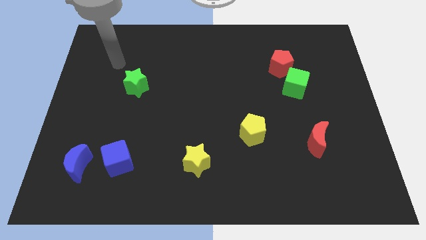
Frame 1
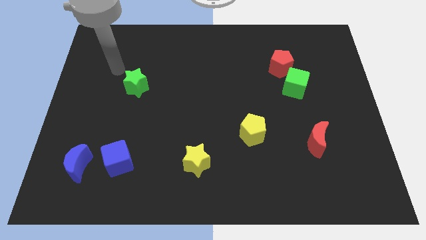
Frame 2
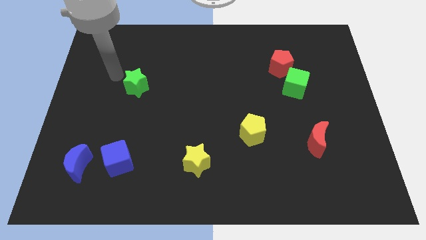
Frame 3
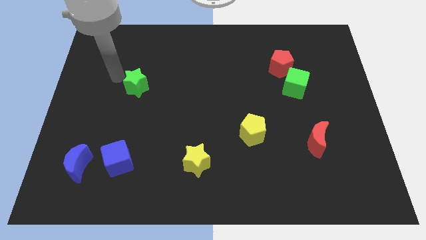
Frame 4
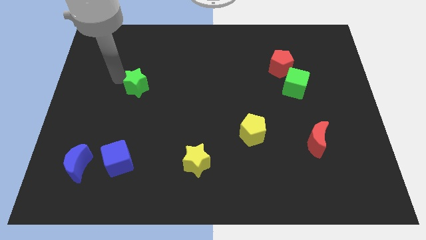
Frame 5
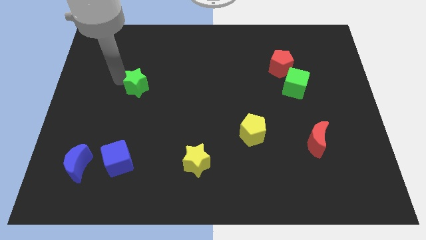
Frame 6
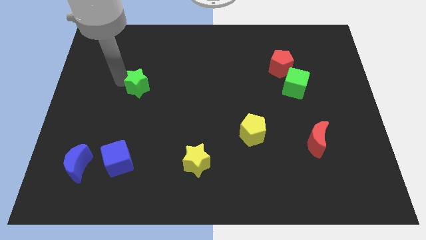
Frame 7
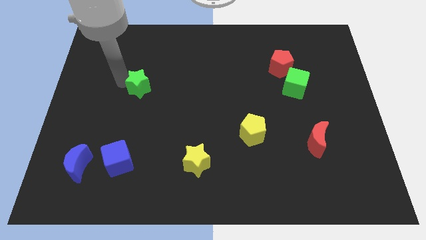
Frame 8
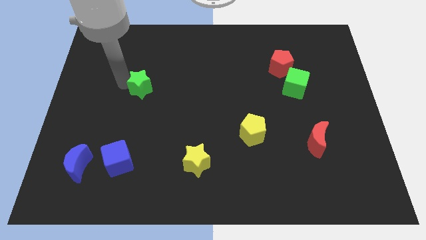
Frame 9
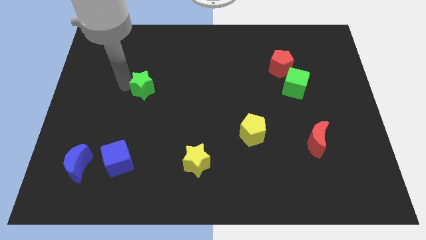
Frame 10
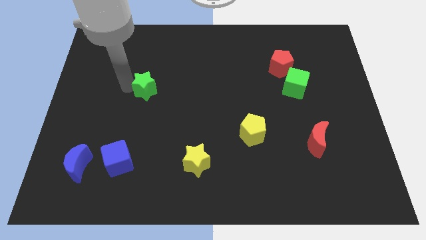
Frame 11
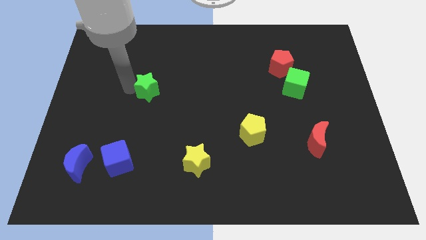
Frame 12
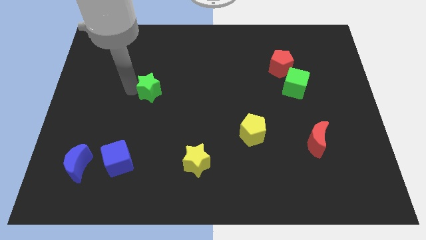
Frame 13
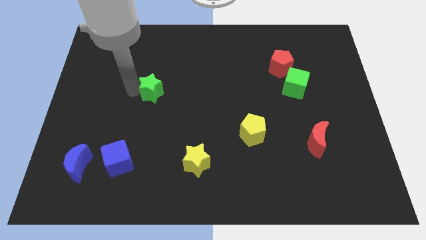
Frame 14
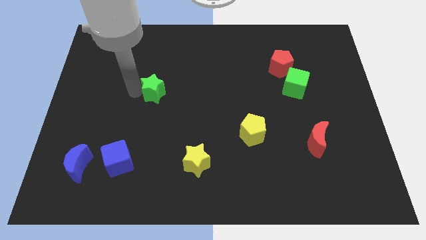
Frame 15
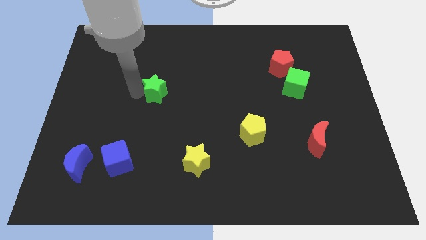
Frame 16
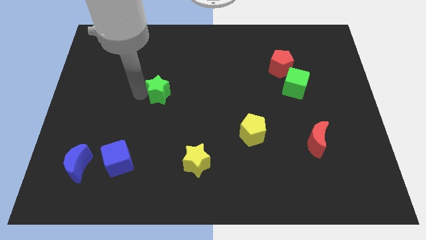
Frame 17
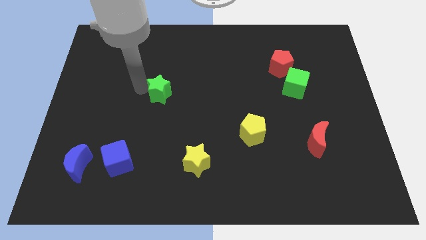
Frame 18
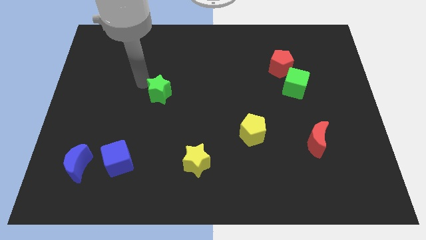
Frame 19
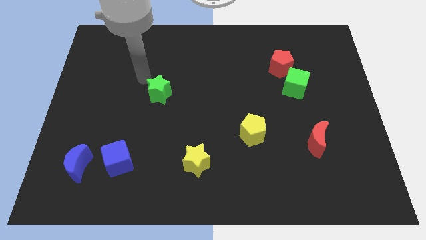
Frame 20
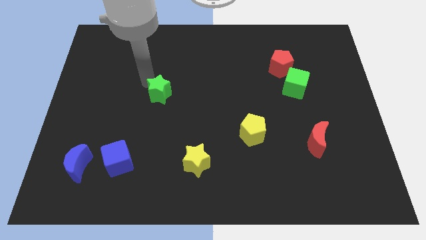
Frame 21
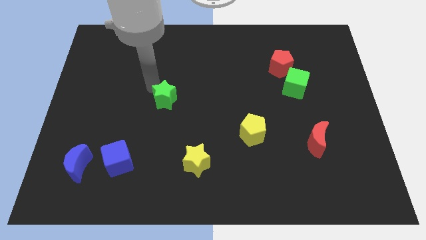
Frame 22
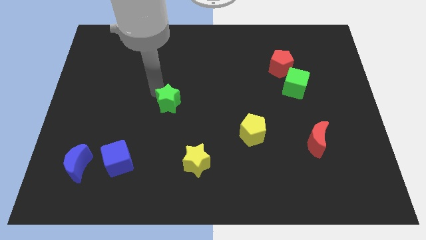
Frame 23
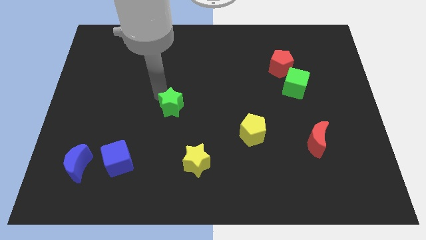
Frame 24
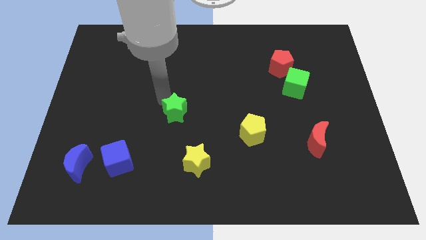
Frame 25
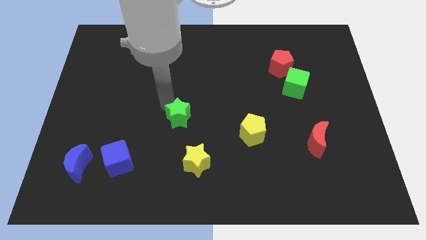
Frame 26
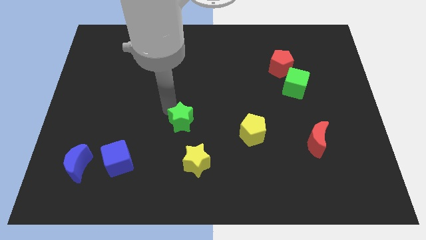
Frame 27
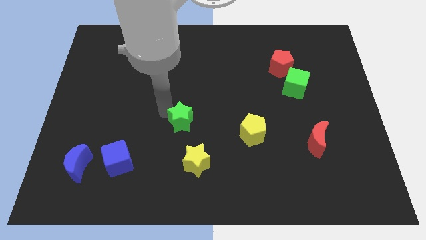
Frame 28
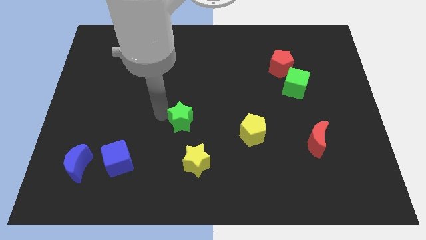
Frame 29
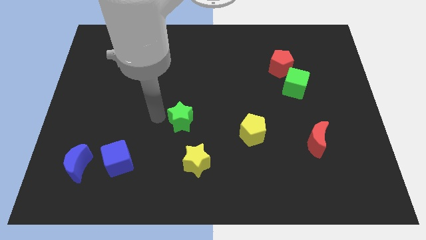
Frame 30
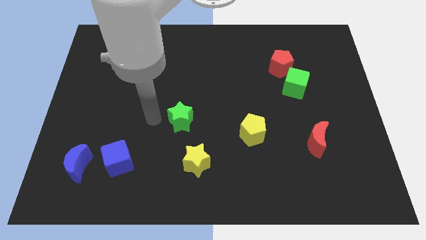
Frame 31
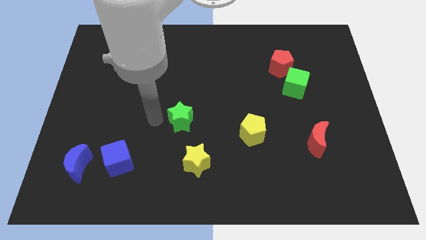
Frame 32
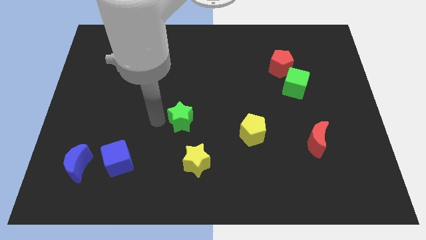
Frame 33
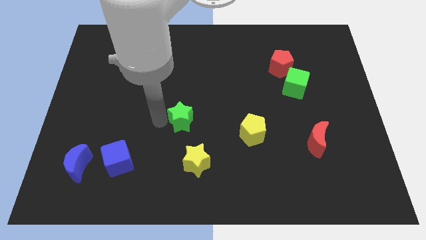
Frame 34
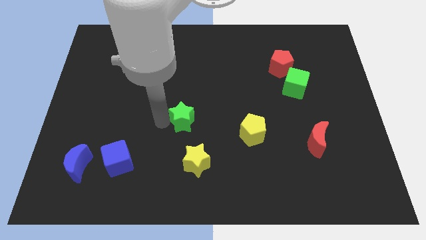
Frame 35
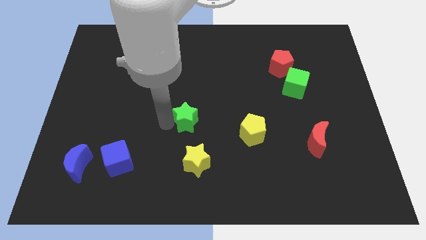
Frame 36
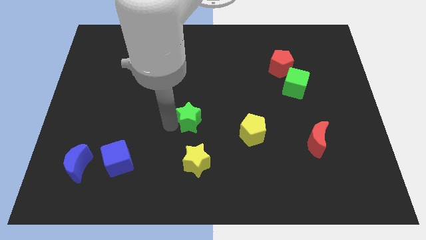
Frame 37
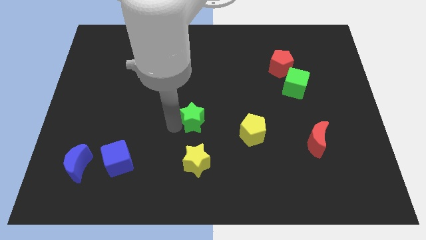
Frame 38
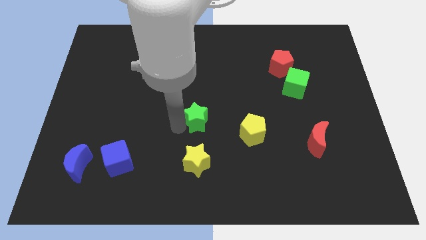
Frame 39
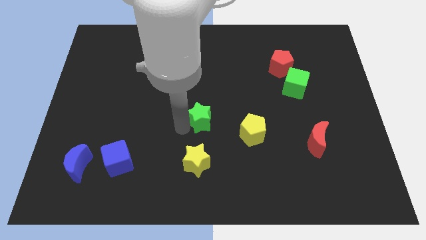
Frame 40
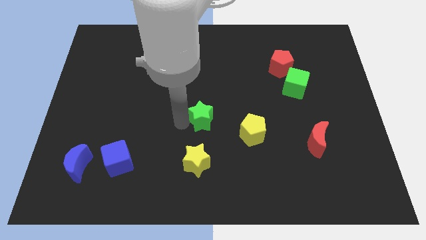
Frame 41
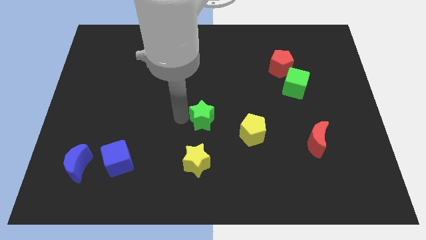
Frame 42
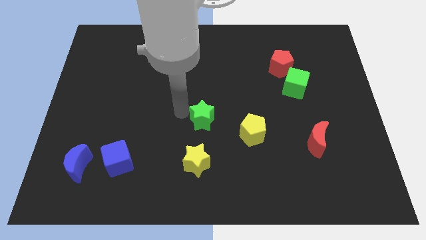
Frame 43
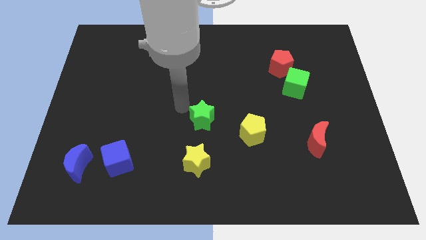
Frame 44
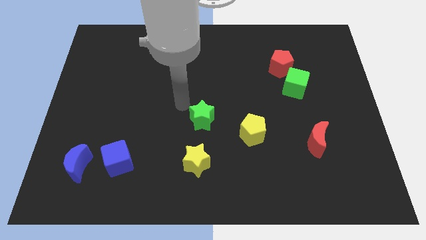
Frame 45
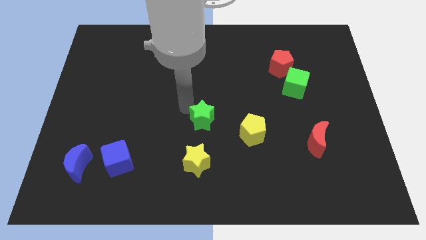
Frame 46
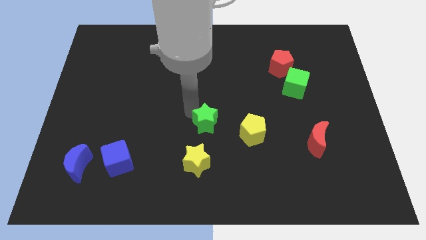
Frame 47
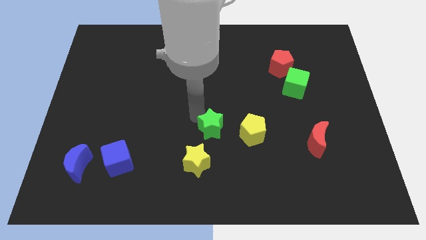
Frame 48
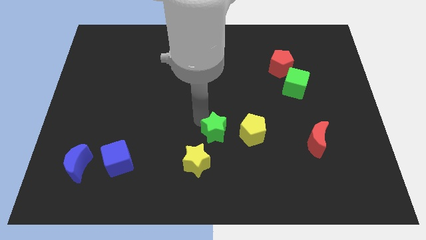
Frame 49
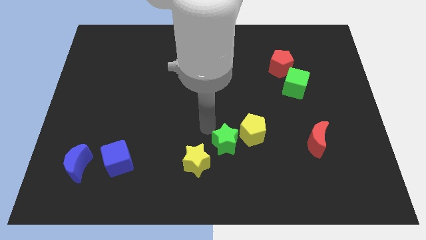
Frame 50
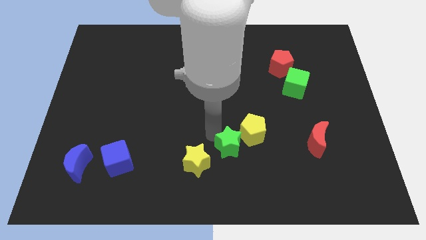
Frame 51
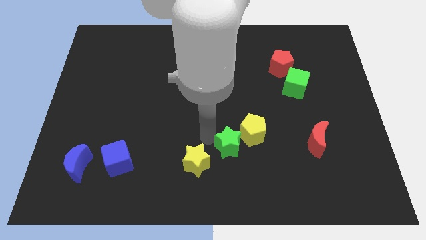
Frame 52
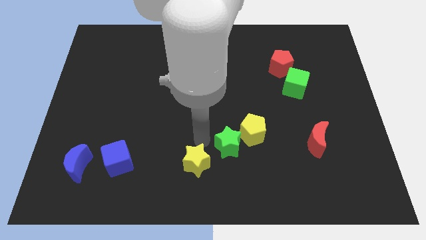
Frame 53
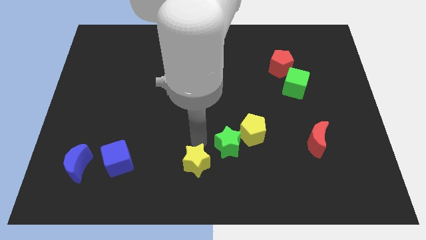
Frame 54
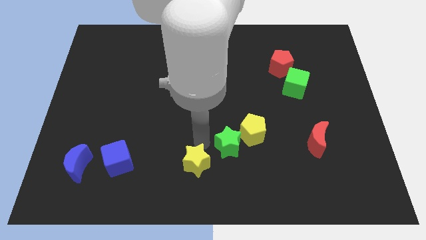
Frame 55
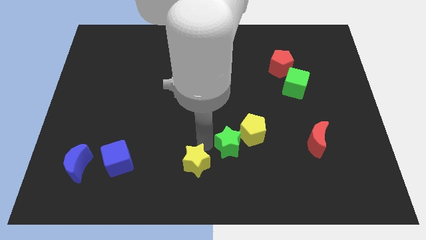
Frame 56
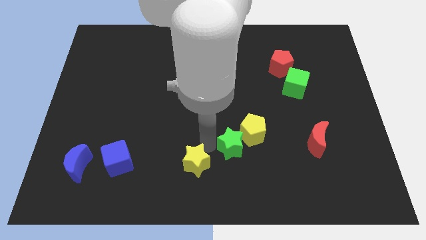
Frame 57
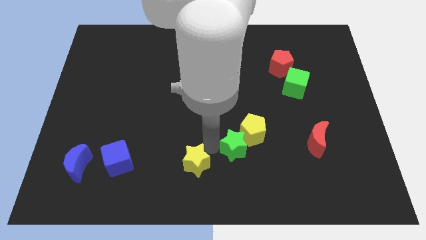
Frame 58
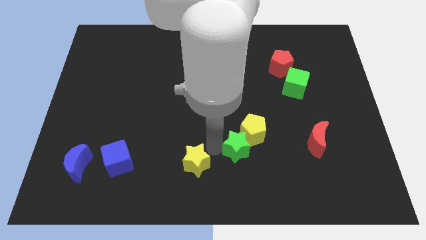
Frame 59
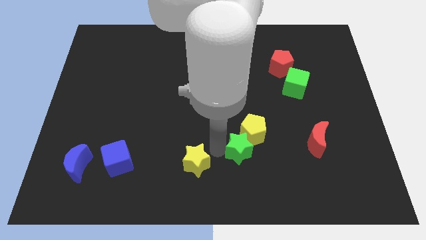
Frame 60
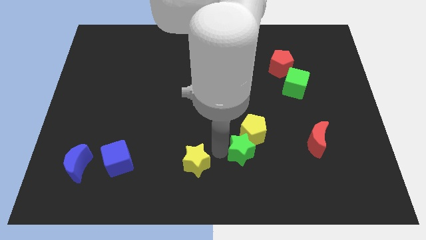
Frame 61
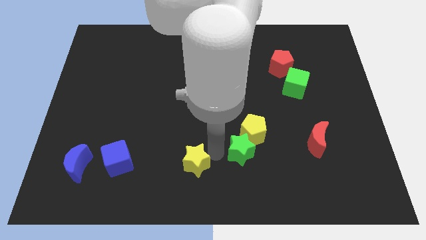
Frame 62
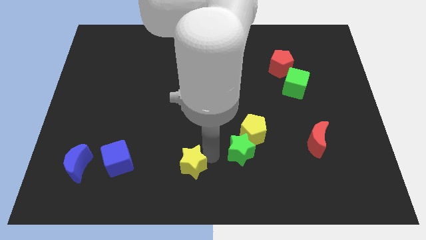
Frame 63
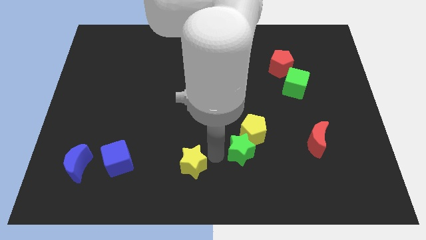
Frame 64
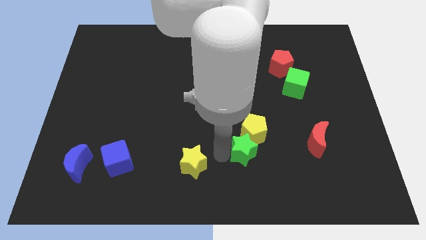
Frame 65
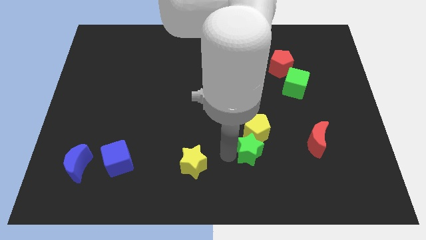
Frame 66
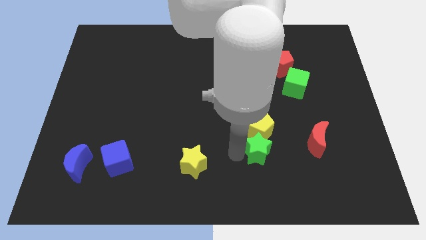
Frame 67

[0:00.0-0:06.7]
move the green star diagonally down and to the right of the yellow pentagon
